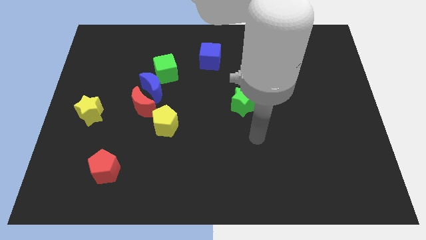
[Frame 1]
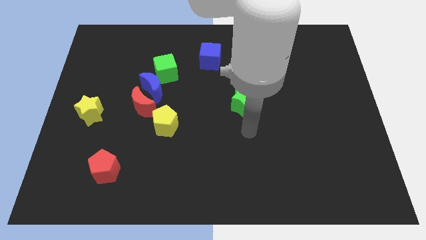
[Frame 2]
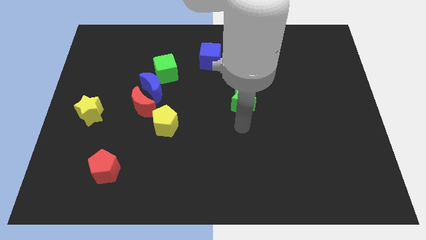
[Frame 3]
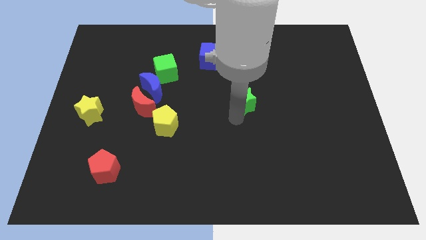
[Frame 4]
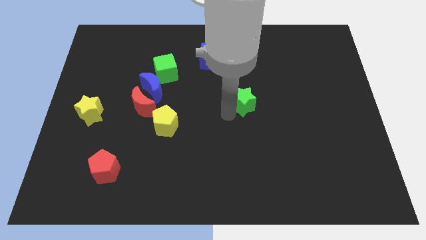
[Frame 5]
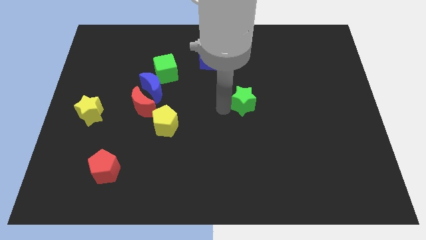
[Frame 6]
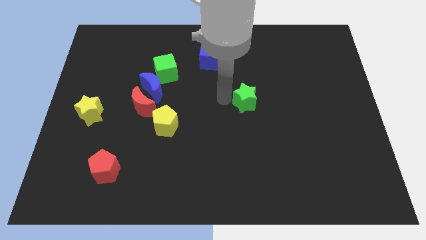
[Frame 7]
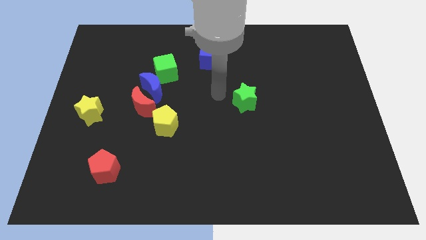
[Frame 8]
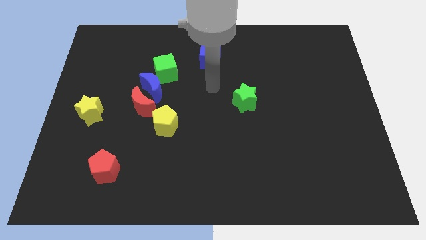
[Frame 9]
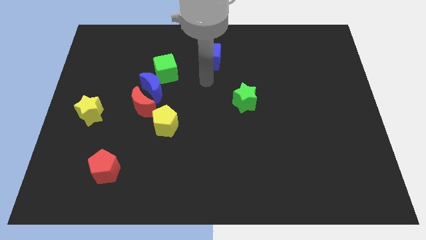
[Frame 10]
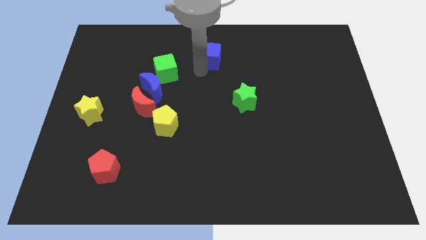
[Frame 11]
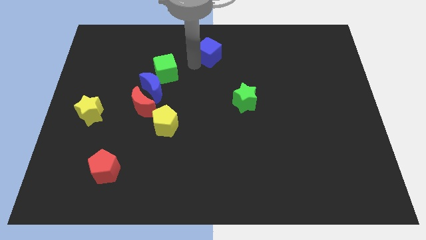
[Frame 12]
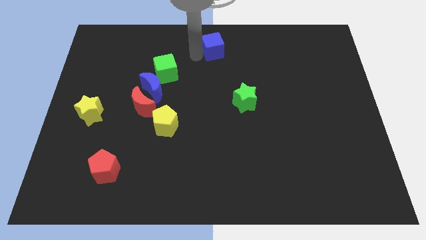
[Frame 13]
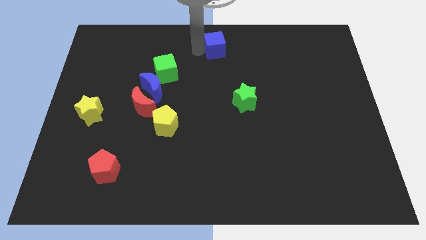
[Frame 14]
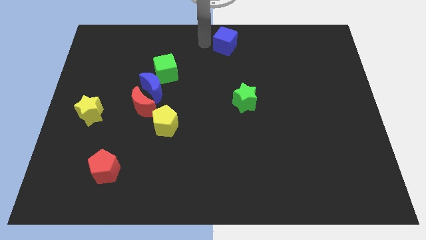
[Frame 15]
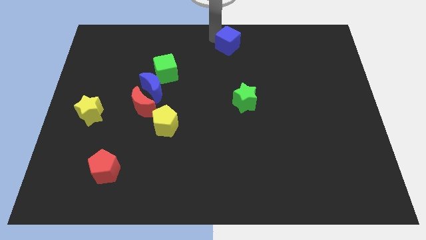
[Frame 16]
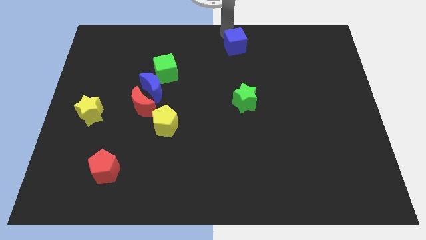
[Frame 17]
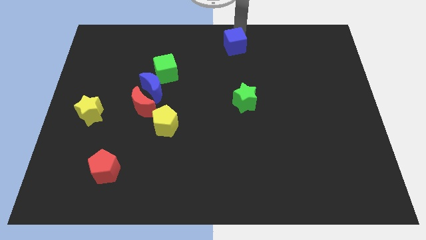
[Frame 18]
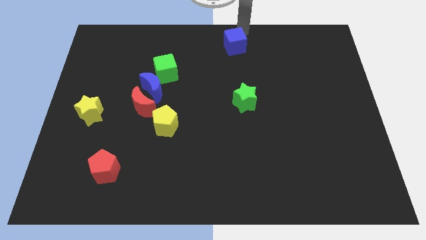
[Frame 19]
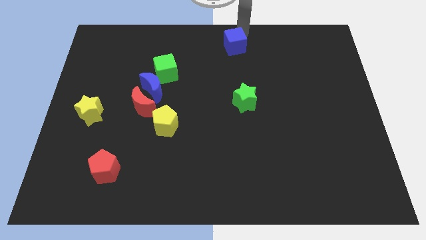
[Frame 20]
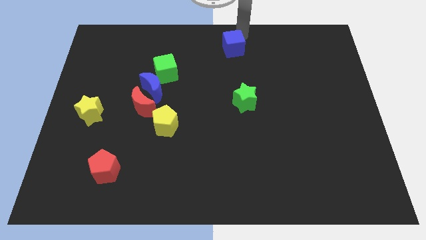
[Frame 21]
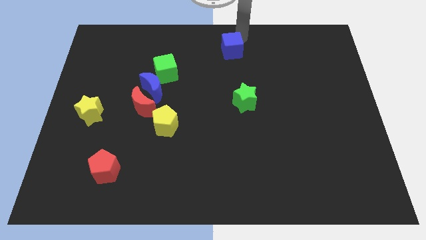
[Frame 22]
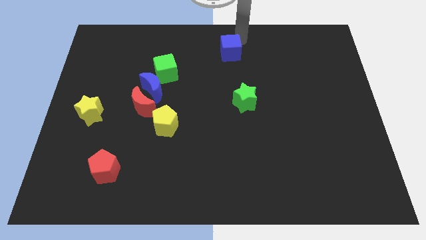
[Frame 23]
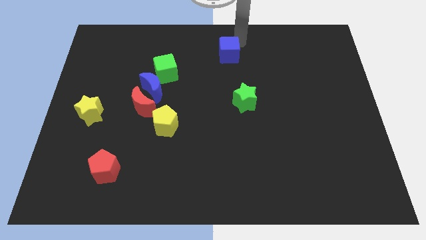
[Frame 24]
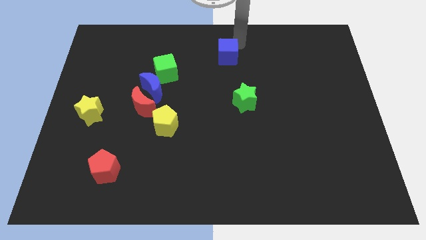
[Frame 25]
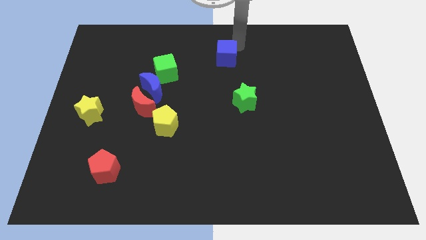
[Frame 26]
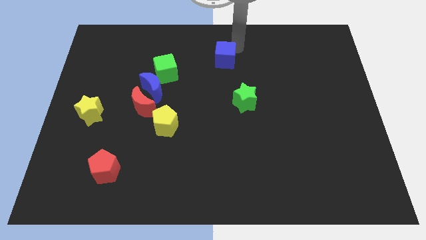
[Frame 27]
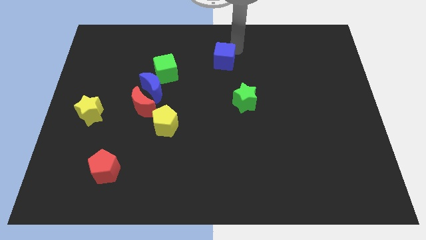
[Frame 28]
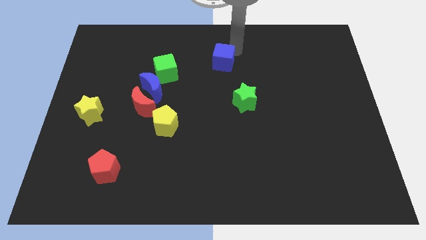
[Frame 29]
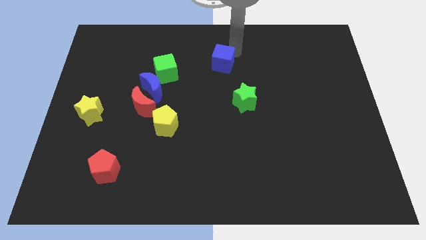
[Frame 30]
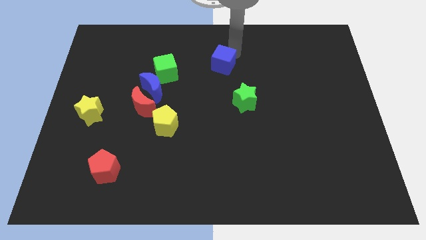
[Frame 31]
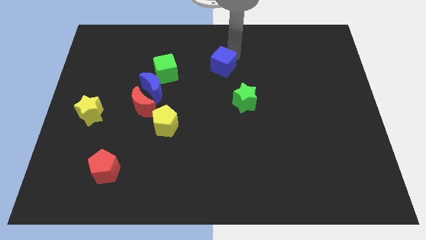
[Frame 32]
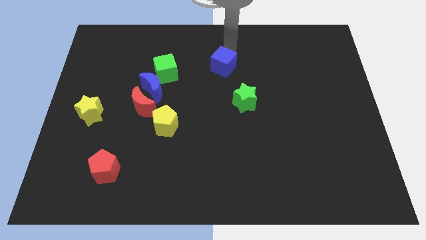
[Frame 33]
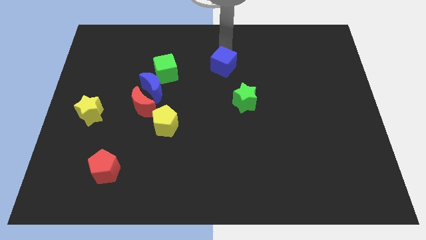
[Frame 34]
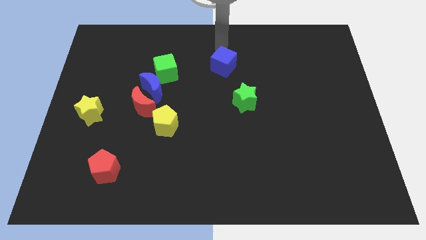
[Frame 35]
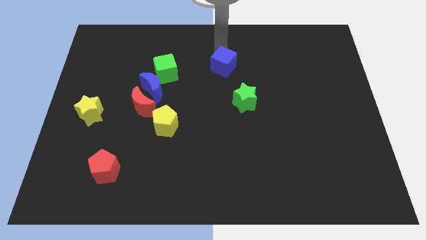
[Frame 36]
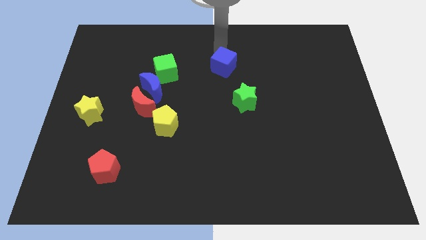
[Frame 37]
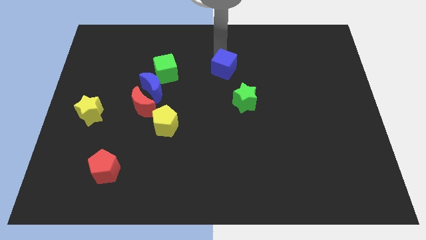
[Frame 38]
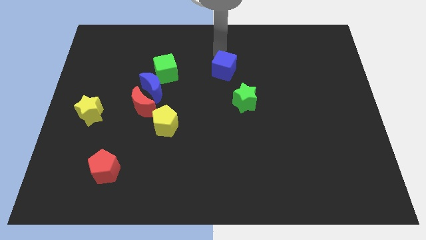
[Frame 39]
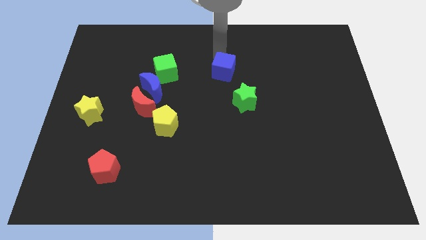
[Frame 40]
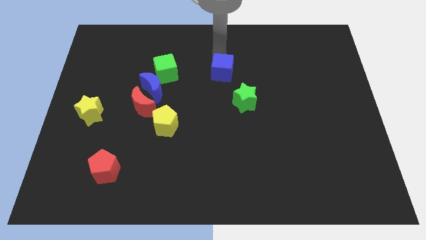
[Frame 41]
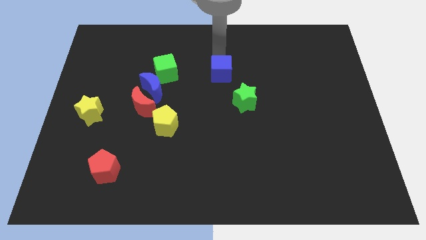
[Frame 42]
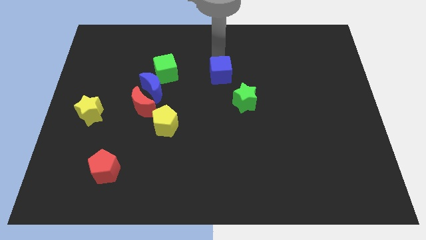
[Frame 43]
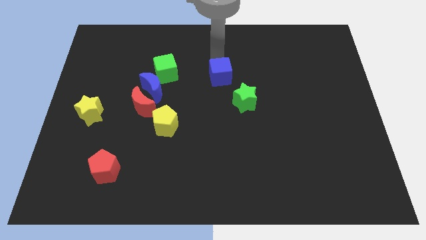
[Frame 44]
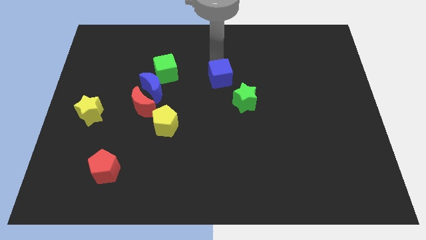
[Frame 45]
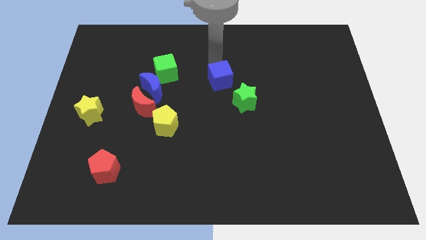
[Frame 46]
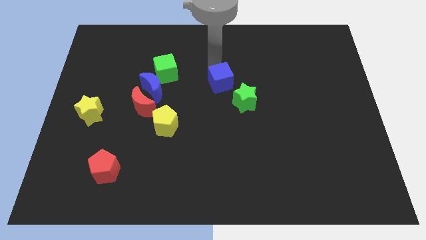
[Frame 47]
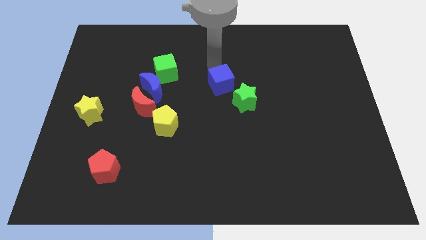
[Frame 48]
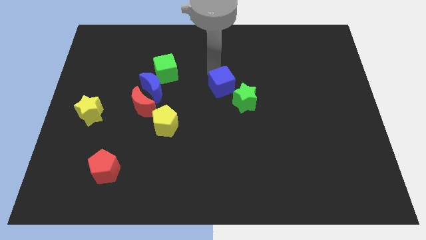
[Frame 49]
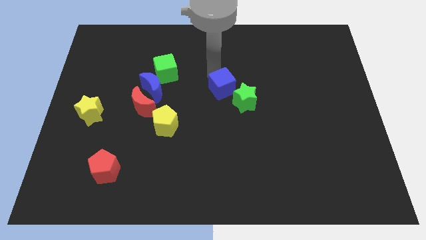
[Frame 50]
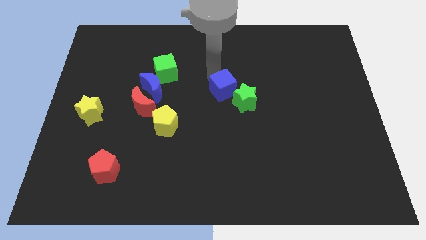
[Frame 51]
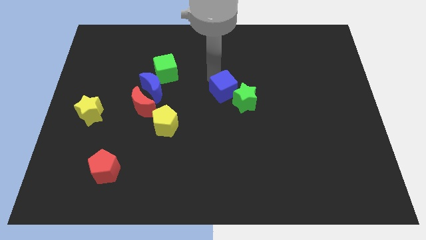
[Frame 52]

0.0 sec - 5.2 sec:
slide the blue cube next to the green star

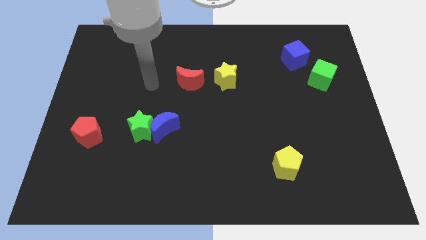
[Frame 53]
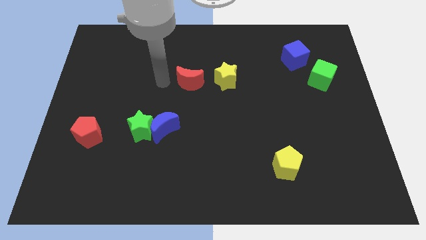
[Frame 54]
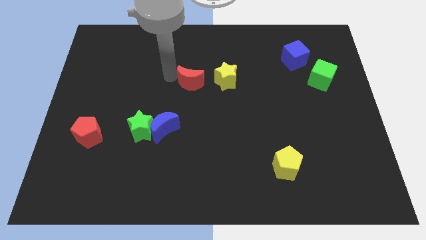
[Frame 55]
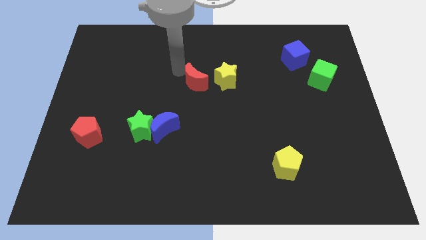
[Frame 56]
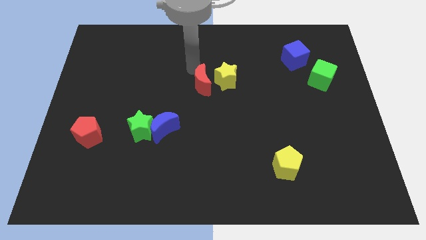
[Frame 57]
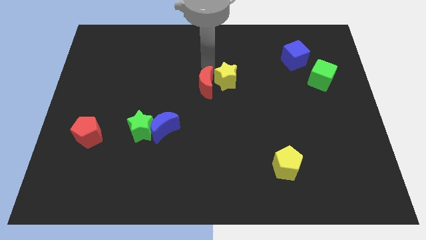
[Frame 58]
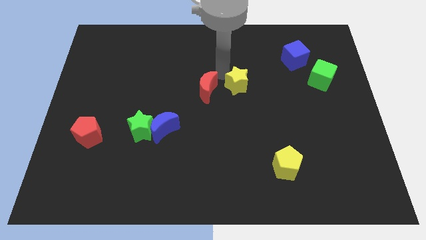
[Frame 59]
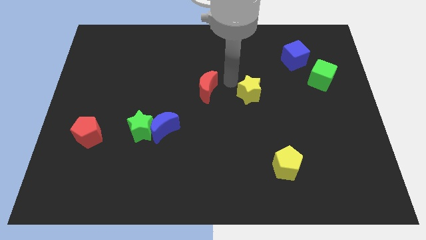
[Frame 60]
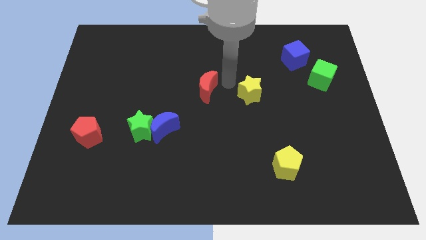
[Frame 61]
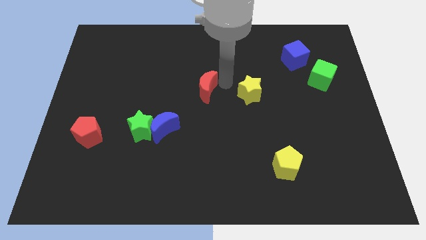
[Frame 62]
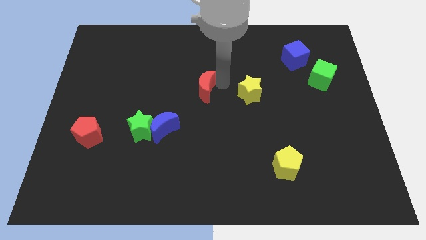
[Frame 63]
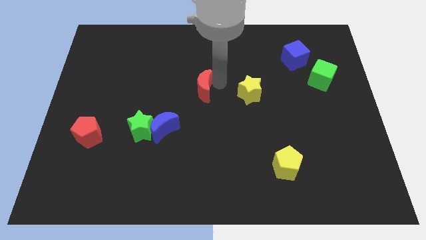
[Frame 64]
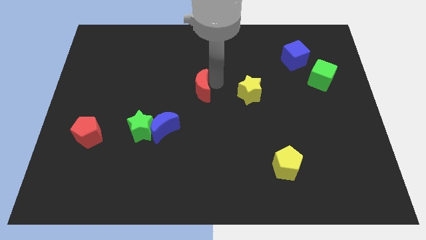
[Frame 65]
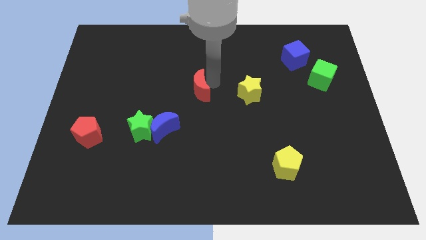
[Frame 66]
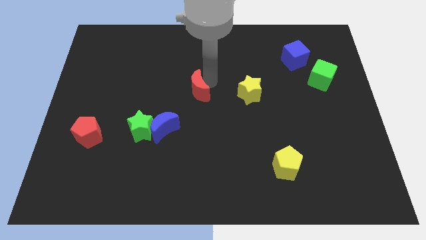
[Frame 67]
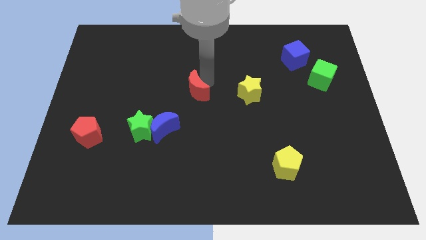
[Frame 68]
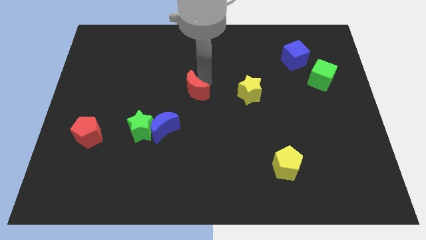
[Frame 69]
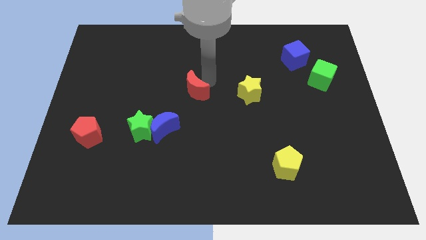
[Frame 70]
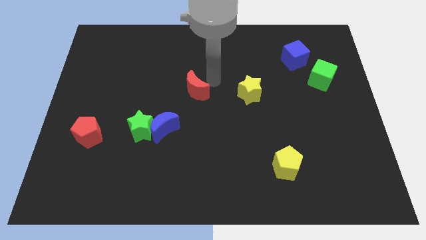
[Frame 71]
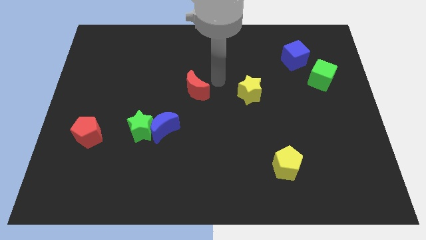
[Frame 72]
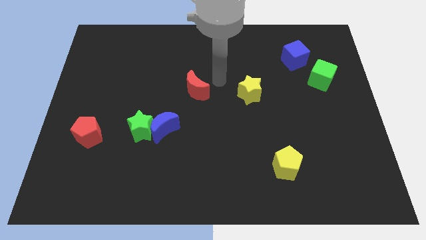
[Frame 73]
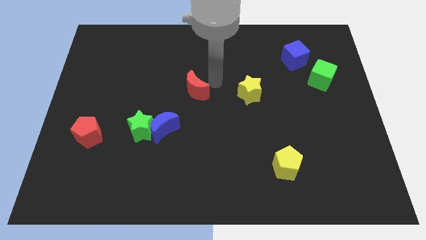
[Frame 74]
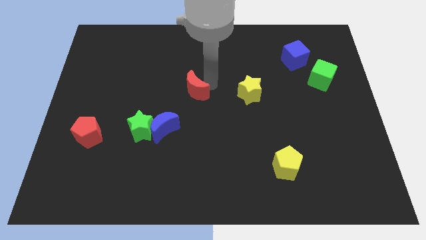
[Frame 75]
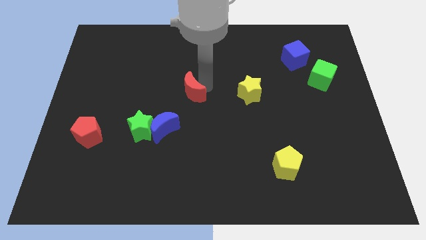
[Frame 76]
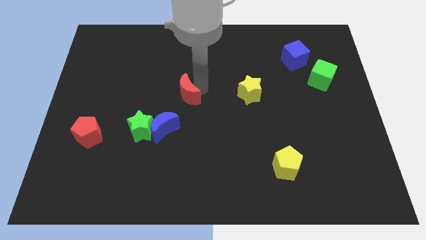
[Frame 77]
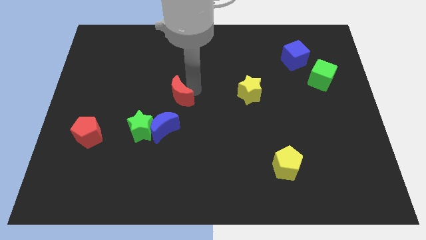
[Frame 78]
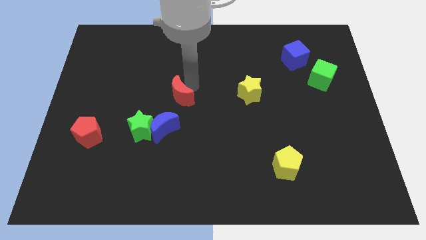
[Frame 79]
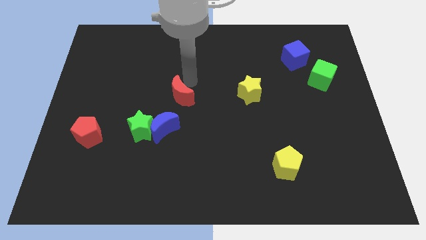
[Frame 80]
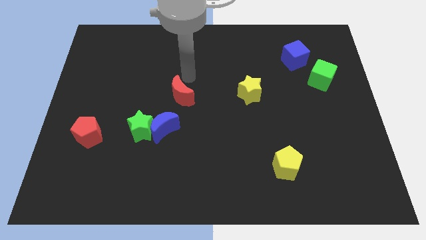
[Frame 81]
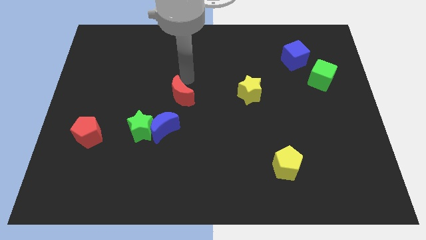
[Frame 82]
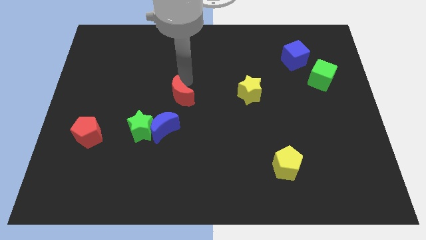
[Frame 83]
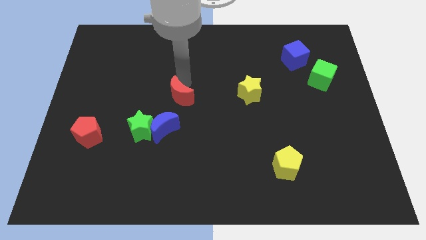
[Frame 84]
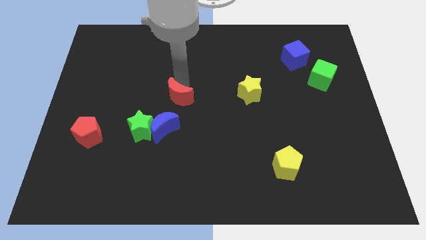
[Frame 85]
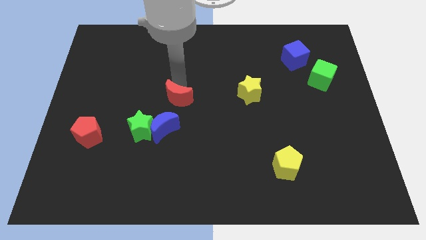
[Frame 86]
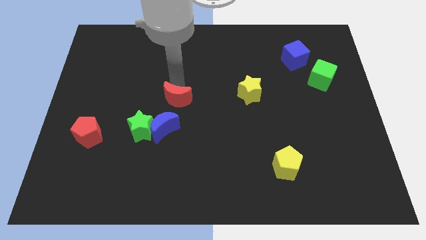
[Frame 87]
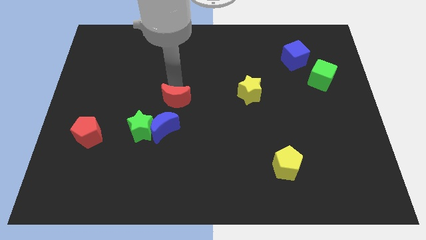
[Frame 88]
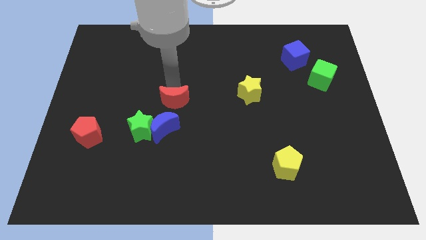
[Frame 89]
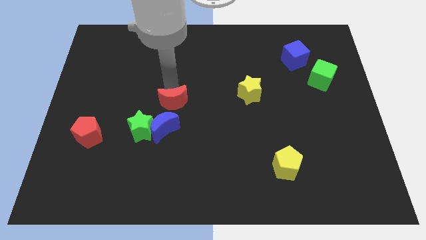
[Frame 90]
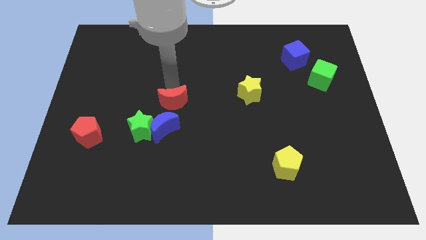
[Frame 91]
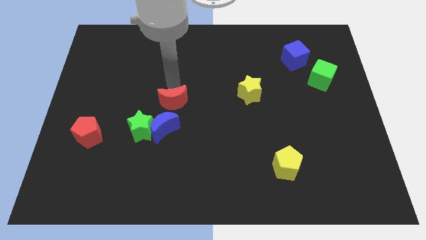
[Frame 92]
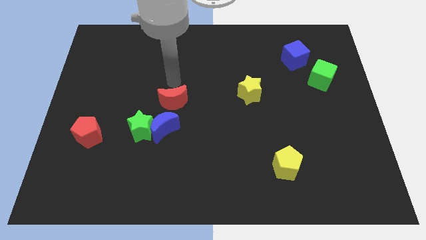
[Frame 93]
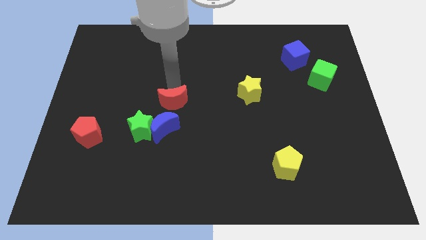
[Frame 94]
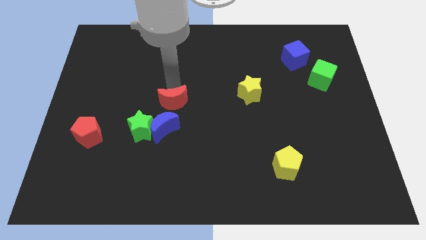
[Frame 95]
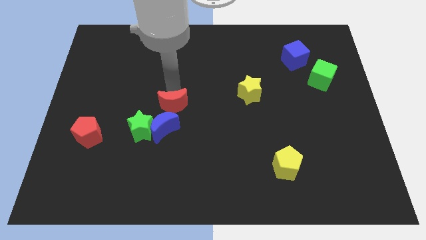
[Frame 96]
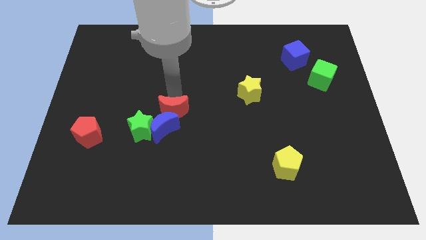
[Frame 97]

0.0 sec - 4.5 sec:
move the red moon next to the blue moon
